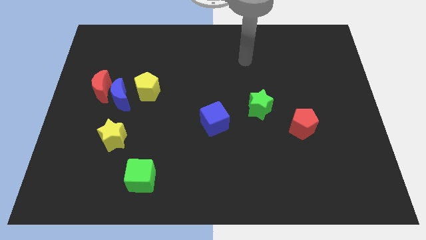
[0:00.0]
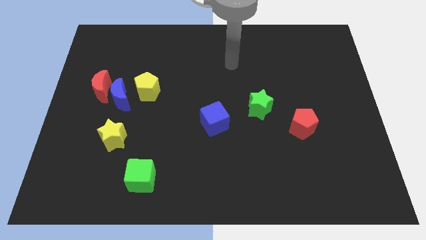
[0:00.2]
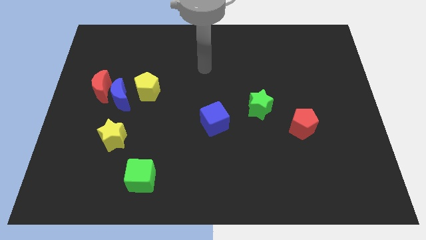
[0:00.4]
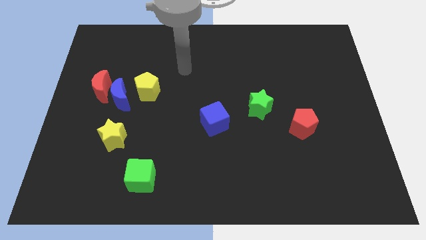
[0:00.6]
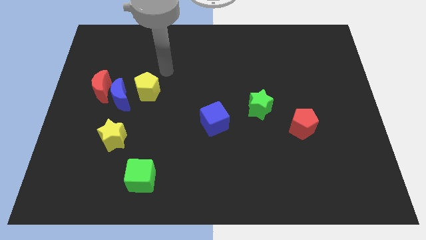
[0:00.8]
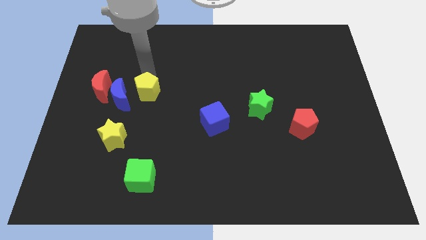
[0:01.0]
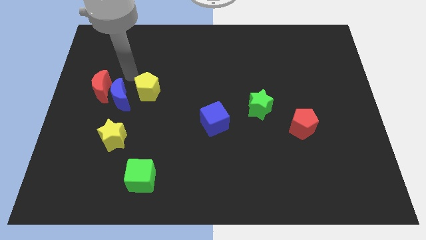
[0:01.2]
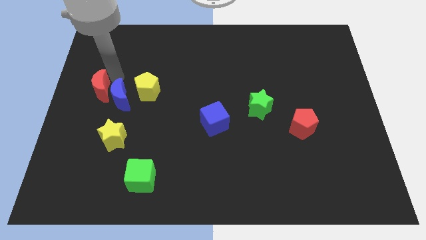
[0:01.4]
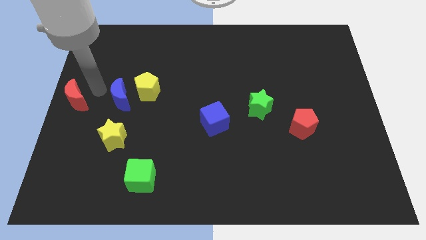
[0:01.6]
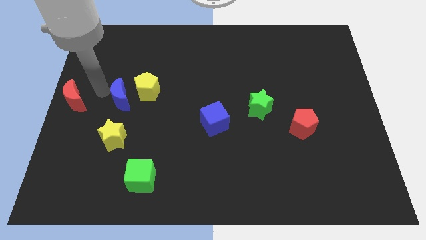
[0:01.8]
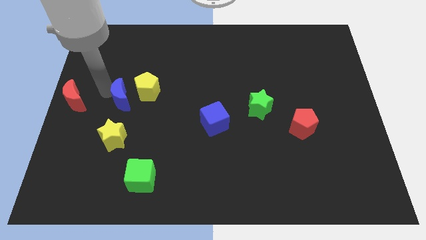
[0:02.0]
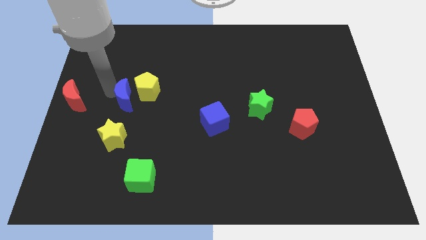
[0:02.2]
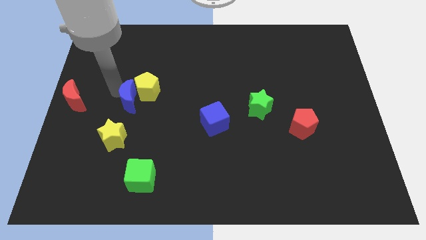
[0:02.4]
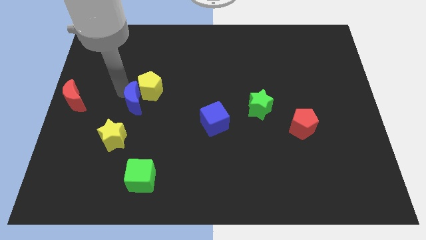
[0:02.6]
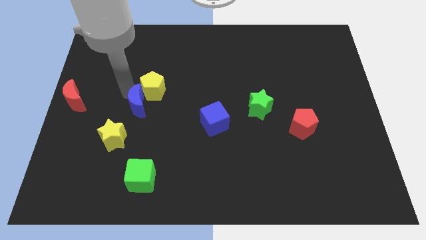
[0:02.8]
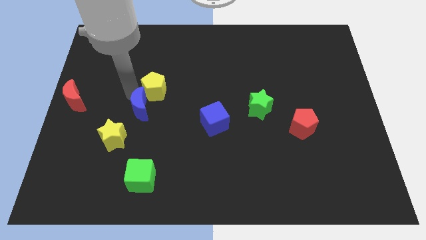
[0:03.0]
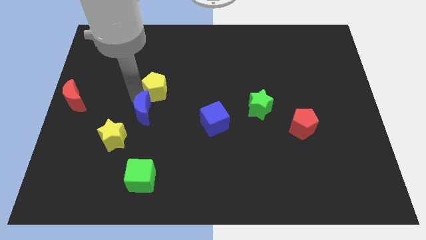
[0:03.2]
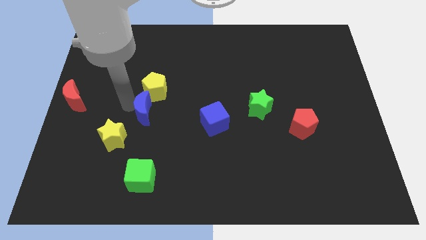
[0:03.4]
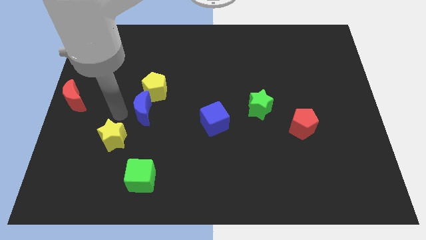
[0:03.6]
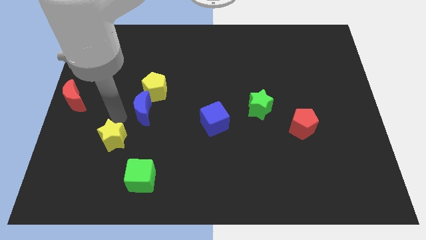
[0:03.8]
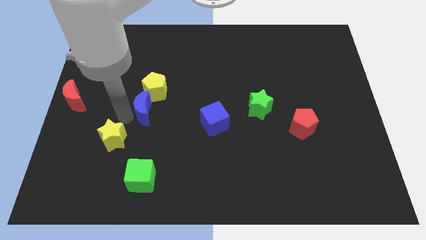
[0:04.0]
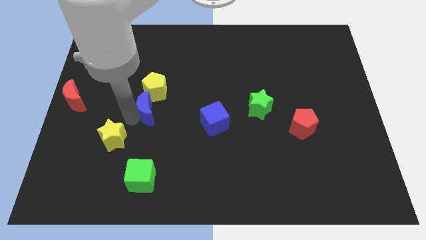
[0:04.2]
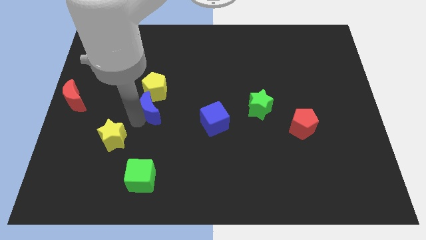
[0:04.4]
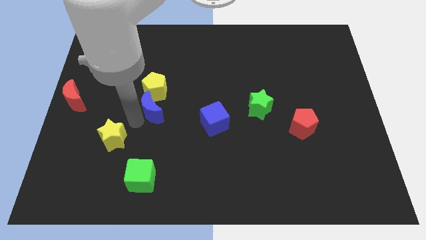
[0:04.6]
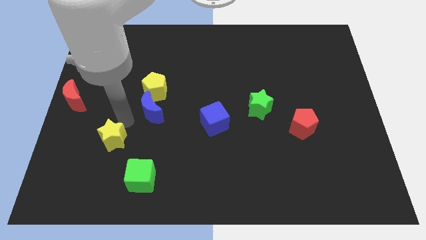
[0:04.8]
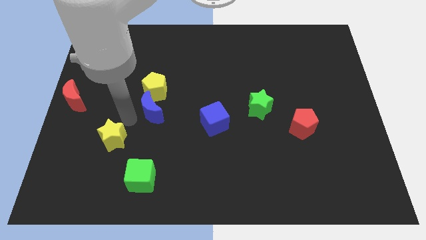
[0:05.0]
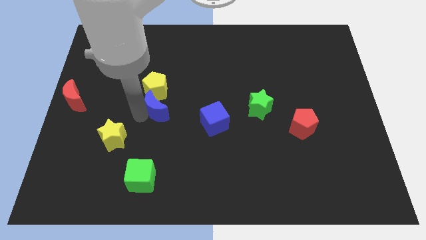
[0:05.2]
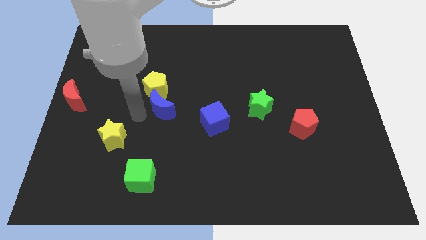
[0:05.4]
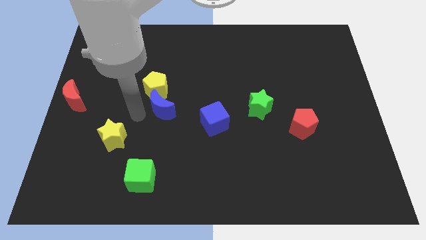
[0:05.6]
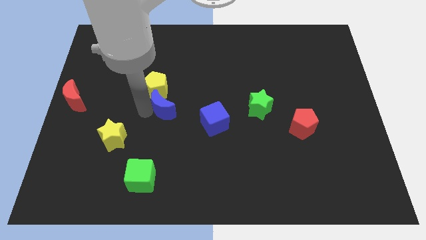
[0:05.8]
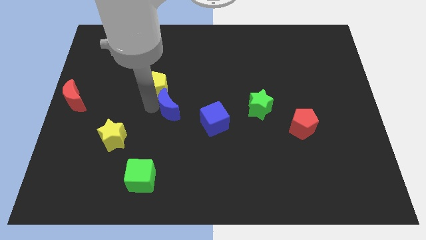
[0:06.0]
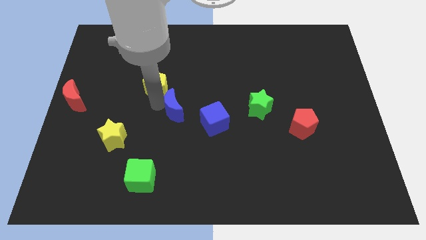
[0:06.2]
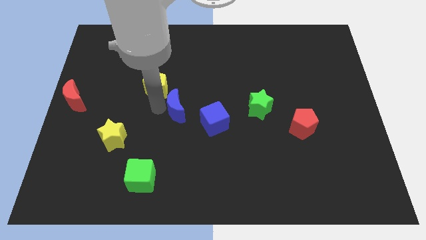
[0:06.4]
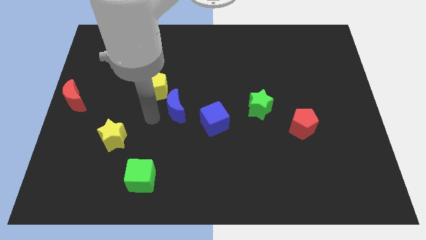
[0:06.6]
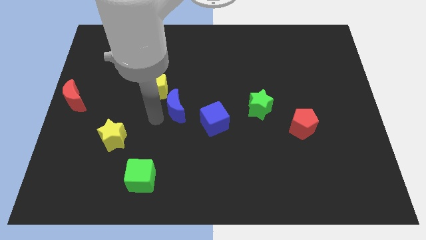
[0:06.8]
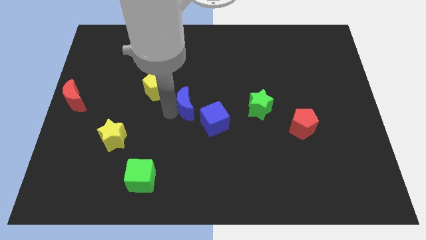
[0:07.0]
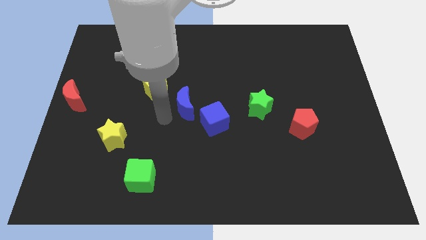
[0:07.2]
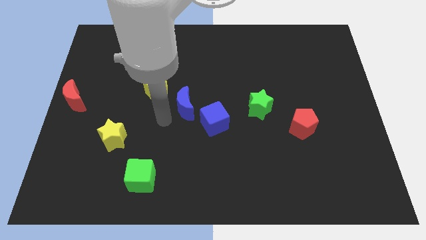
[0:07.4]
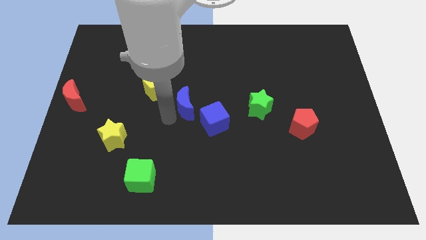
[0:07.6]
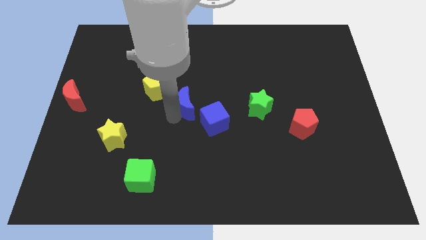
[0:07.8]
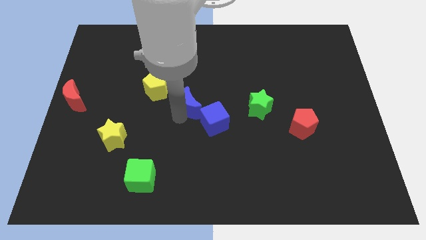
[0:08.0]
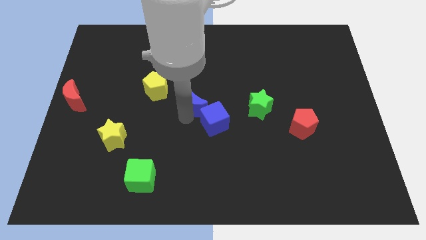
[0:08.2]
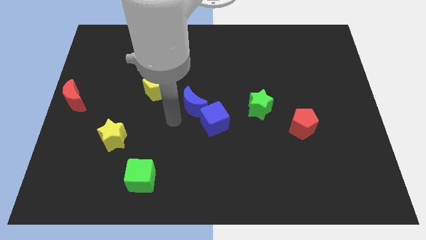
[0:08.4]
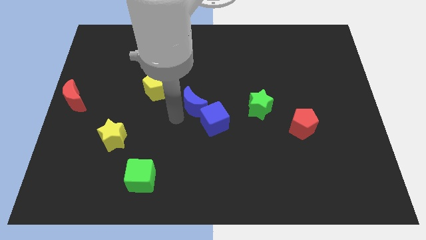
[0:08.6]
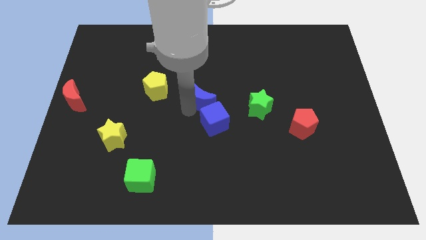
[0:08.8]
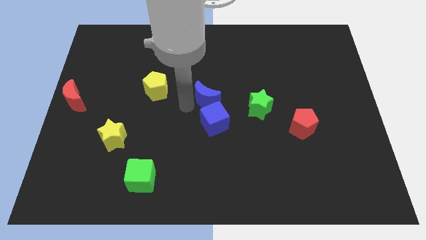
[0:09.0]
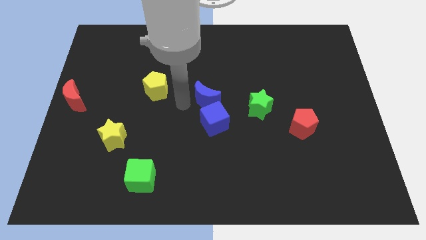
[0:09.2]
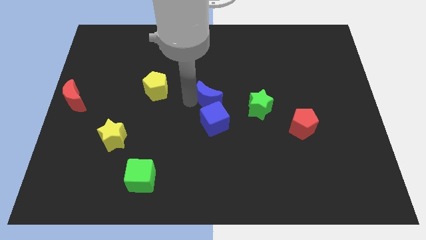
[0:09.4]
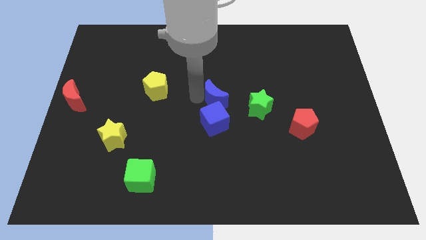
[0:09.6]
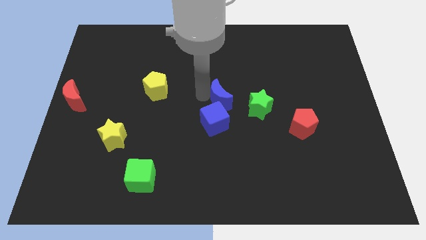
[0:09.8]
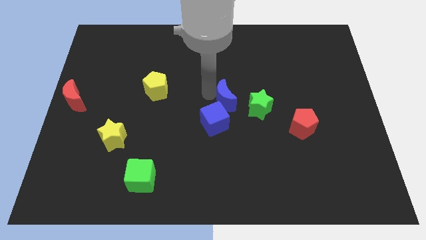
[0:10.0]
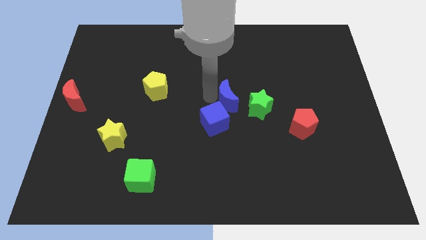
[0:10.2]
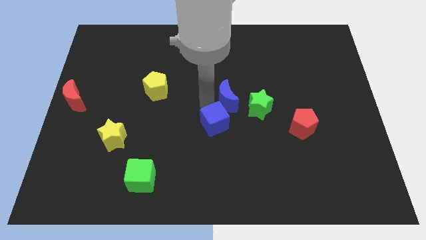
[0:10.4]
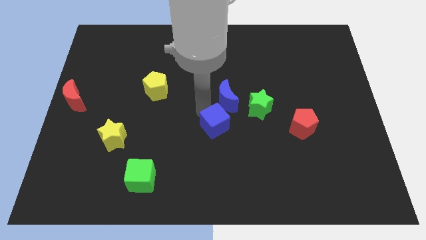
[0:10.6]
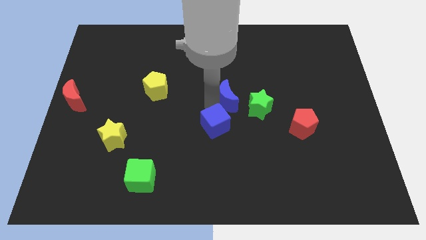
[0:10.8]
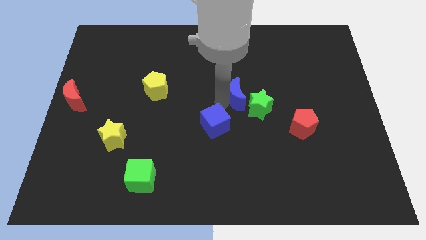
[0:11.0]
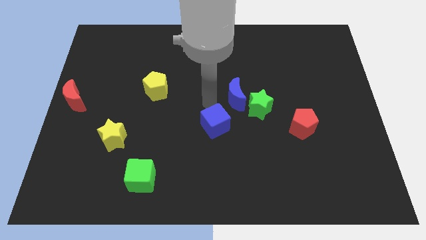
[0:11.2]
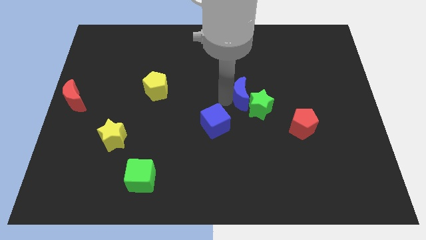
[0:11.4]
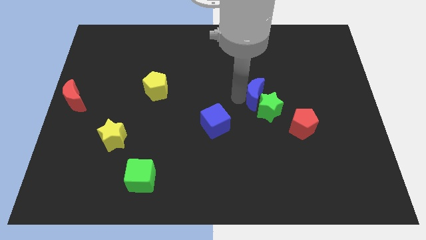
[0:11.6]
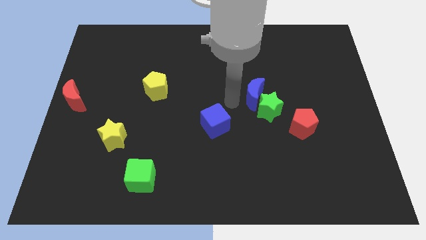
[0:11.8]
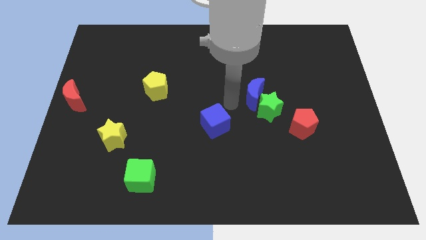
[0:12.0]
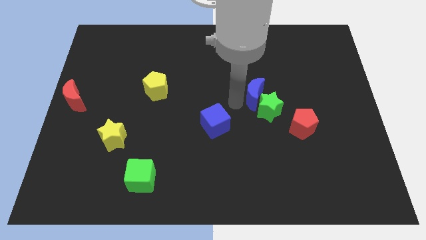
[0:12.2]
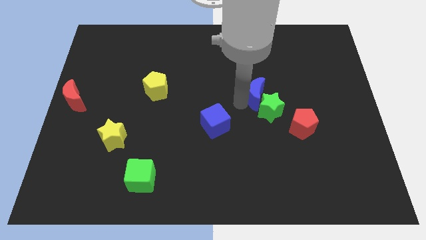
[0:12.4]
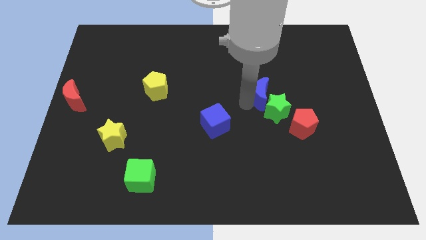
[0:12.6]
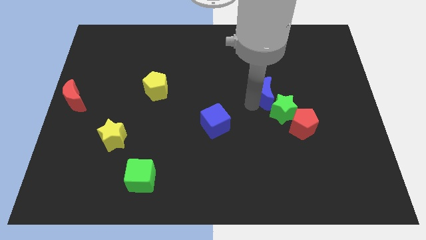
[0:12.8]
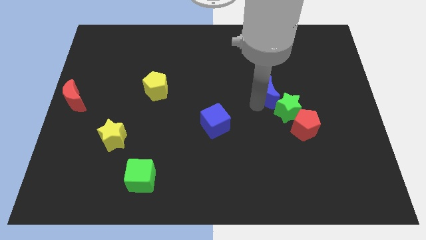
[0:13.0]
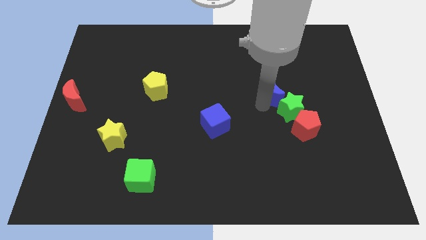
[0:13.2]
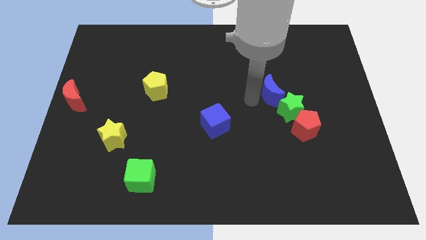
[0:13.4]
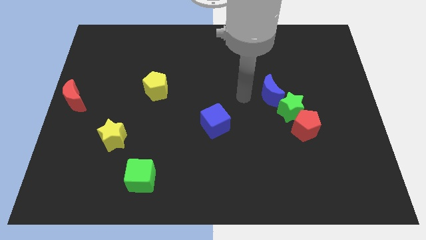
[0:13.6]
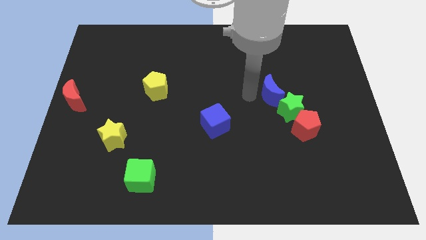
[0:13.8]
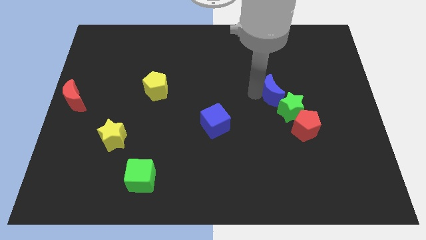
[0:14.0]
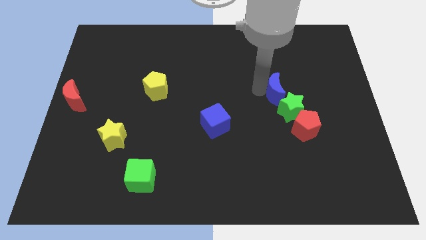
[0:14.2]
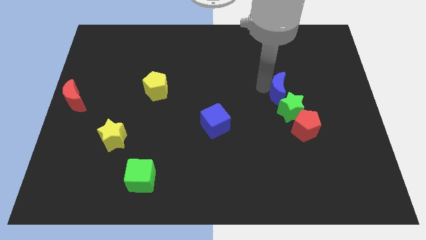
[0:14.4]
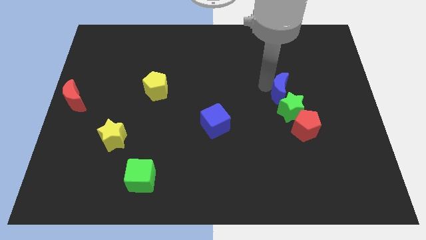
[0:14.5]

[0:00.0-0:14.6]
put the blue moon above the red pentagon
